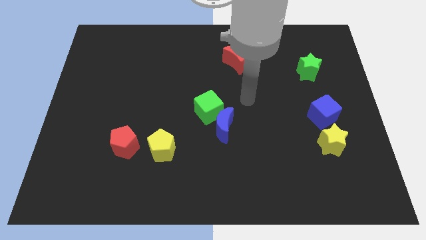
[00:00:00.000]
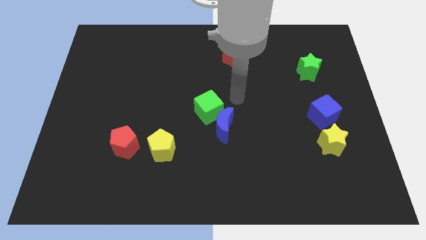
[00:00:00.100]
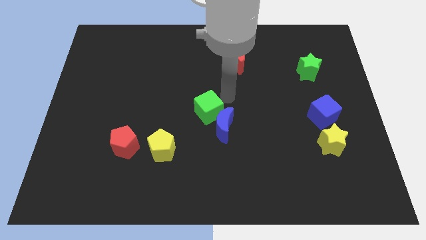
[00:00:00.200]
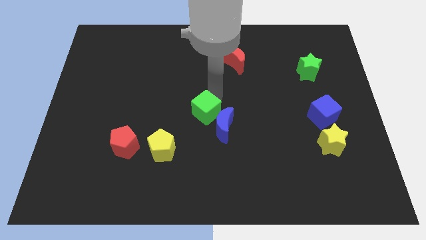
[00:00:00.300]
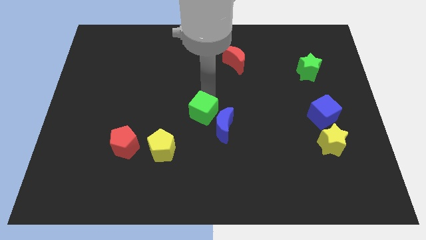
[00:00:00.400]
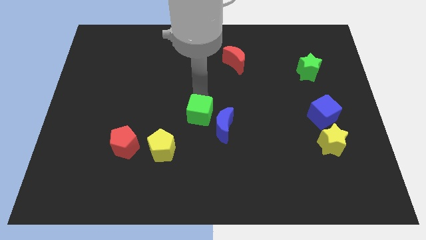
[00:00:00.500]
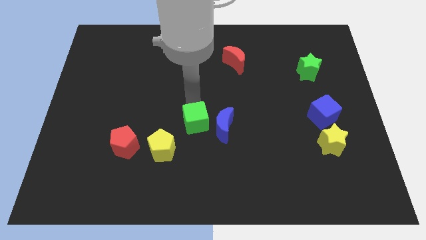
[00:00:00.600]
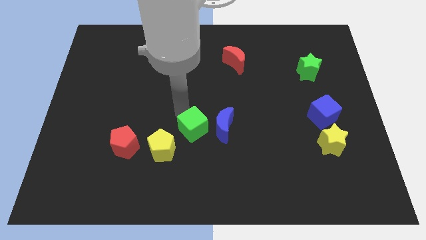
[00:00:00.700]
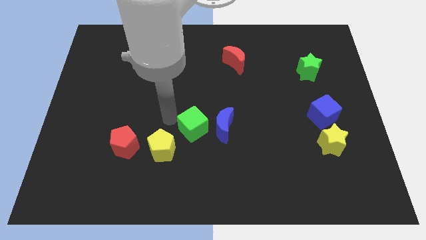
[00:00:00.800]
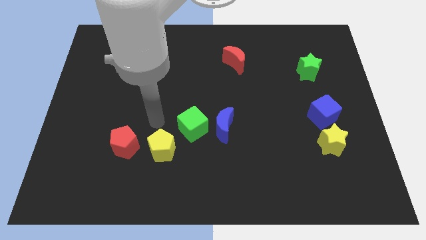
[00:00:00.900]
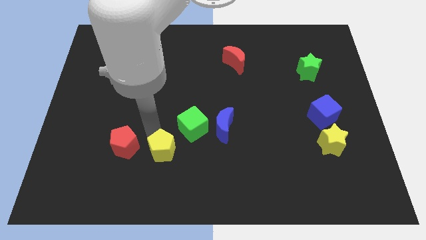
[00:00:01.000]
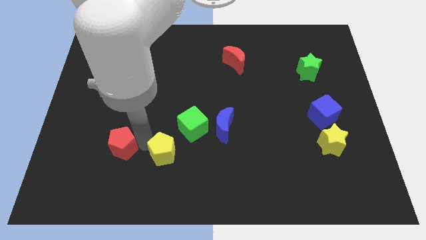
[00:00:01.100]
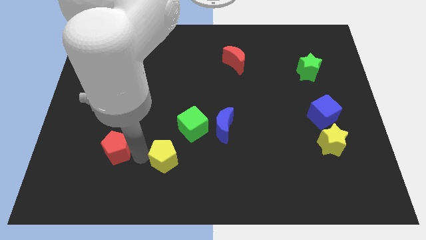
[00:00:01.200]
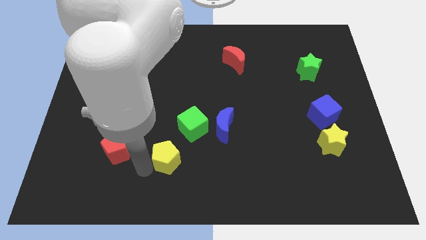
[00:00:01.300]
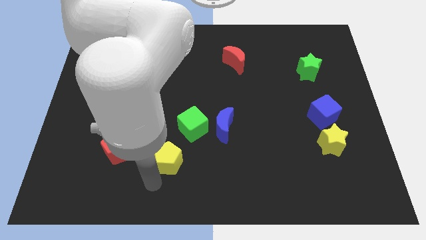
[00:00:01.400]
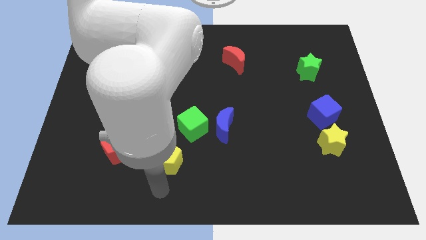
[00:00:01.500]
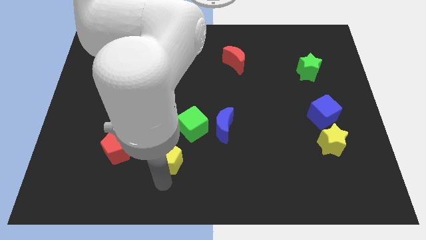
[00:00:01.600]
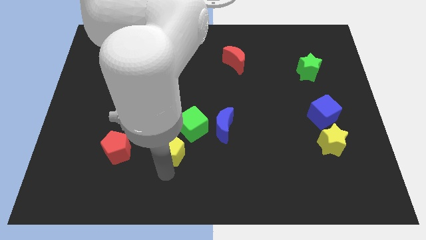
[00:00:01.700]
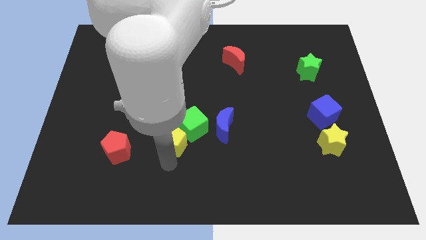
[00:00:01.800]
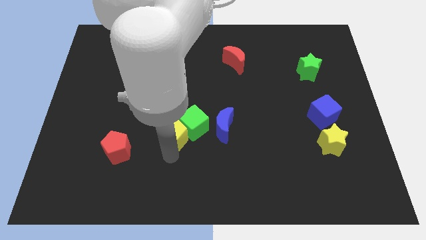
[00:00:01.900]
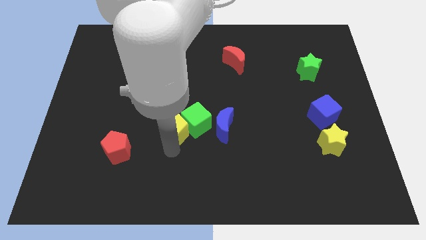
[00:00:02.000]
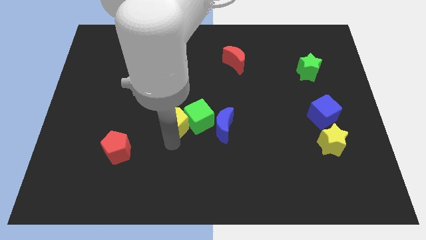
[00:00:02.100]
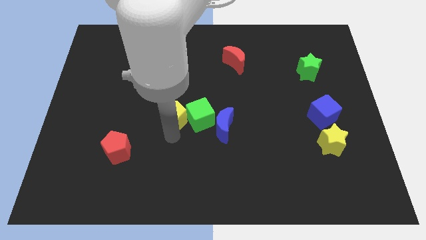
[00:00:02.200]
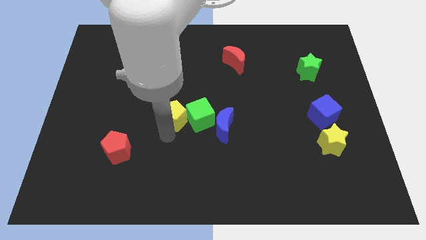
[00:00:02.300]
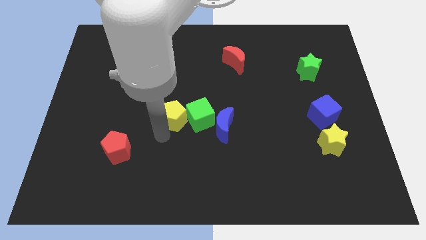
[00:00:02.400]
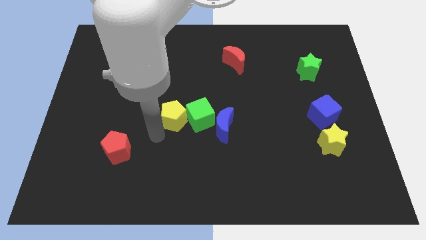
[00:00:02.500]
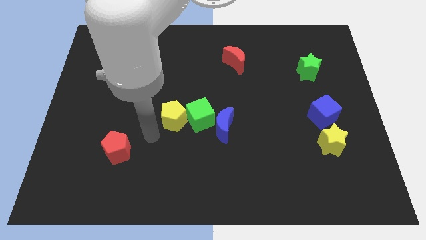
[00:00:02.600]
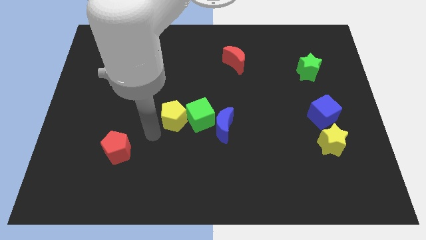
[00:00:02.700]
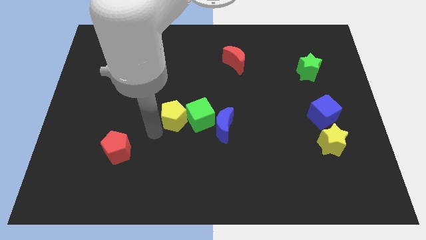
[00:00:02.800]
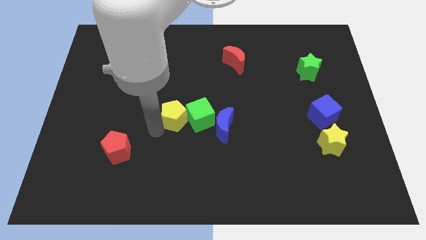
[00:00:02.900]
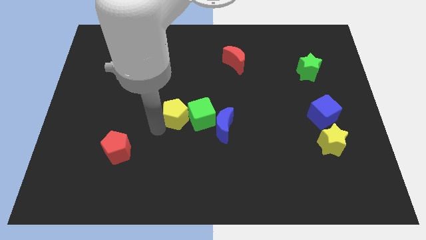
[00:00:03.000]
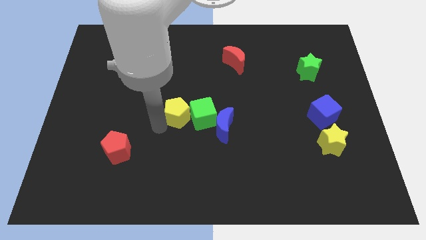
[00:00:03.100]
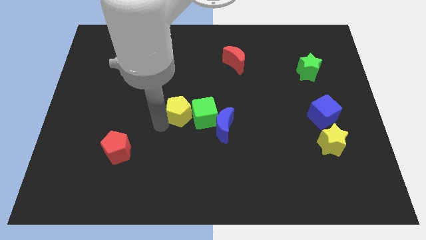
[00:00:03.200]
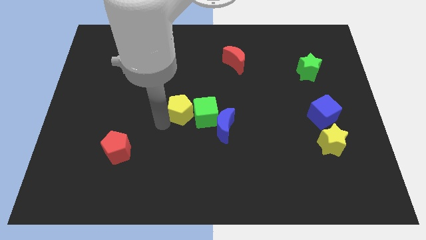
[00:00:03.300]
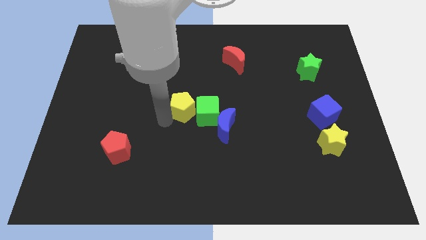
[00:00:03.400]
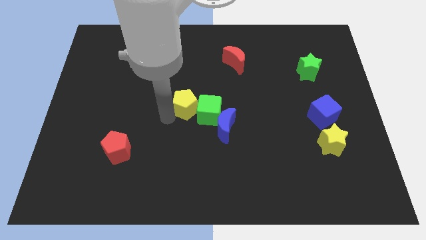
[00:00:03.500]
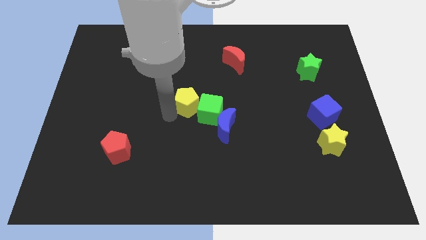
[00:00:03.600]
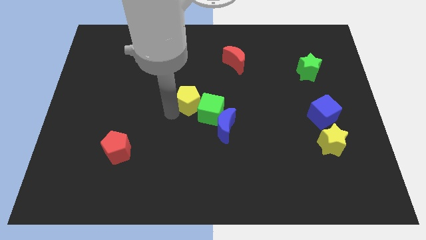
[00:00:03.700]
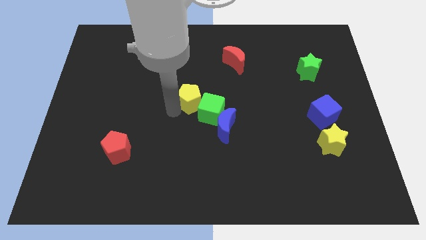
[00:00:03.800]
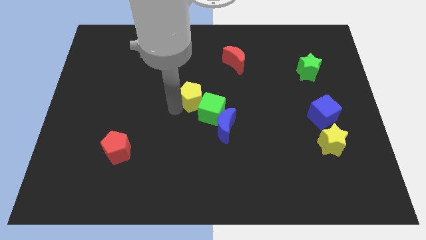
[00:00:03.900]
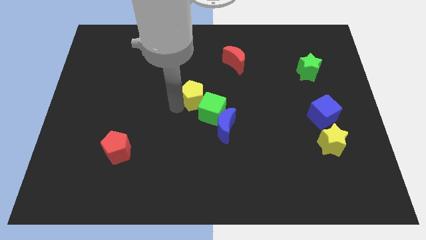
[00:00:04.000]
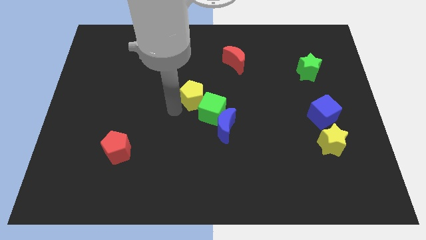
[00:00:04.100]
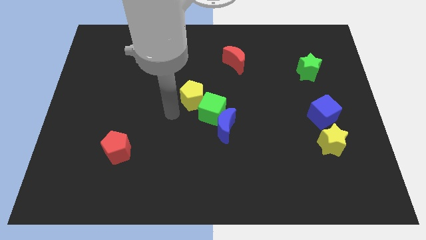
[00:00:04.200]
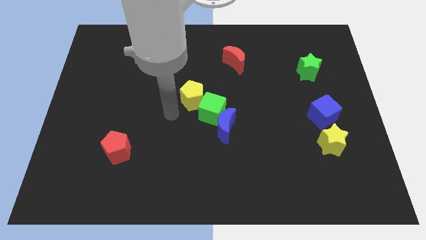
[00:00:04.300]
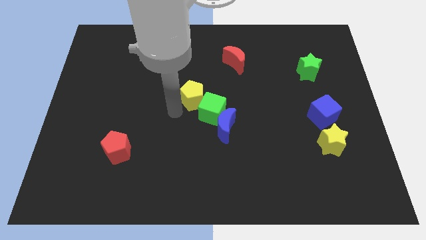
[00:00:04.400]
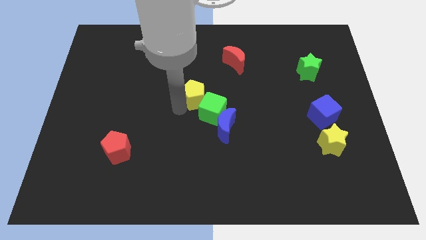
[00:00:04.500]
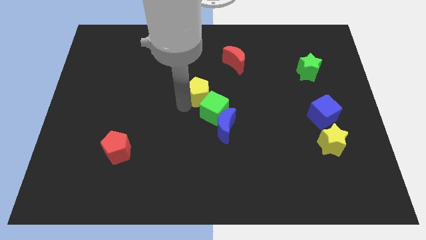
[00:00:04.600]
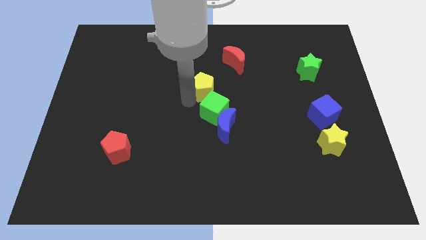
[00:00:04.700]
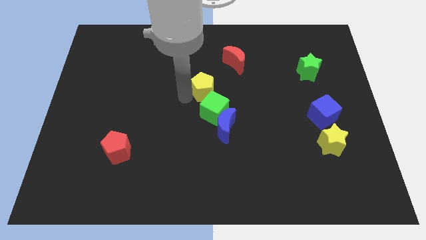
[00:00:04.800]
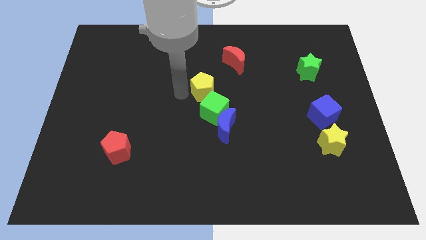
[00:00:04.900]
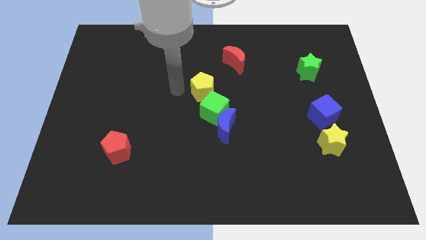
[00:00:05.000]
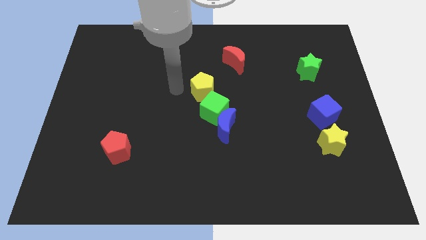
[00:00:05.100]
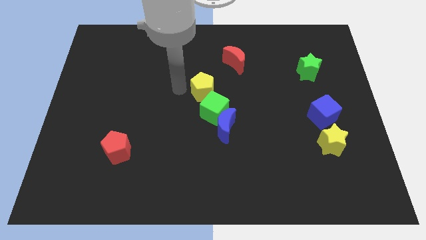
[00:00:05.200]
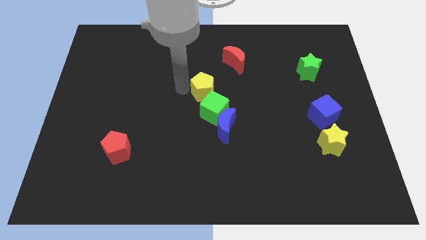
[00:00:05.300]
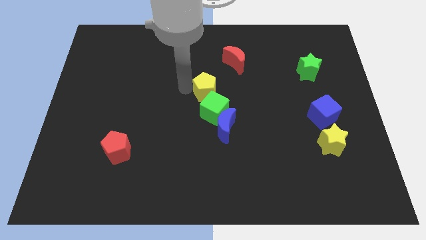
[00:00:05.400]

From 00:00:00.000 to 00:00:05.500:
slide the yellow pentagon to the top of the blue moon

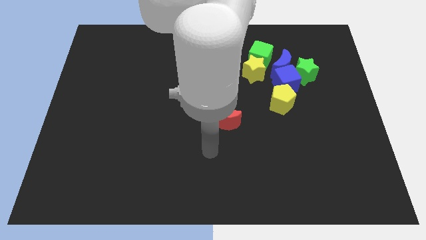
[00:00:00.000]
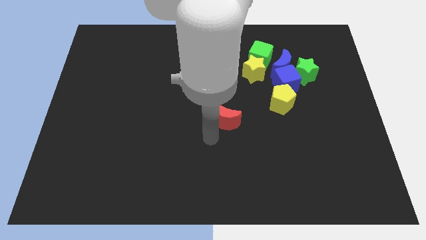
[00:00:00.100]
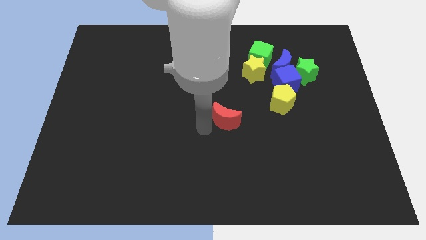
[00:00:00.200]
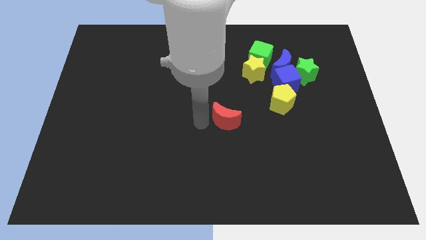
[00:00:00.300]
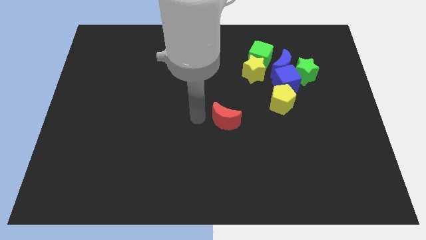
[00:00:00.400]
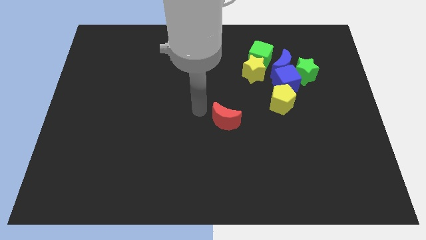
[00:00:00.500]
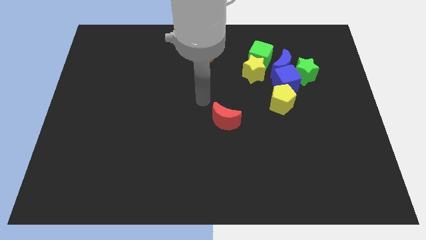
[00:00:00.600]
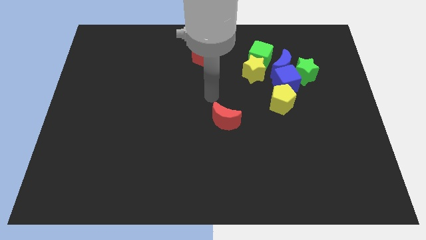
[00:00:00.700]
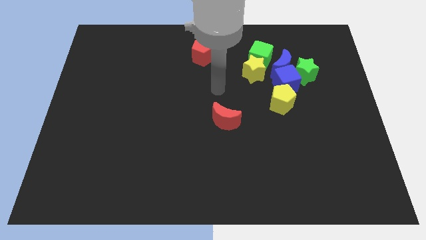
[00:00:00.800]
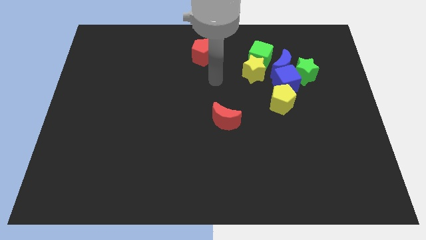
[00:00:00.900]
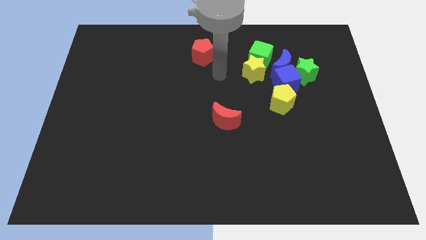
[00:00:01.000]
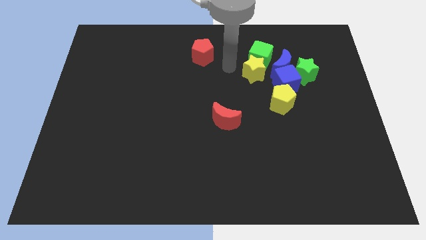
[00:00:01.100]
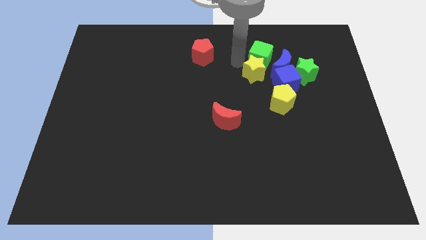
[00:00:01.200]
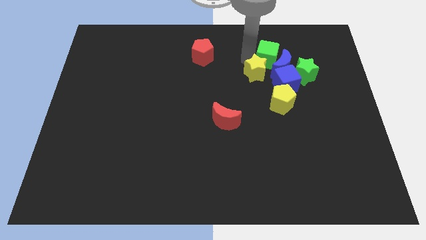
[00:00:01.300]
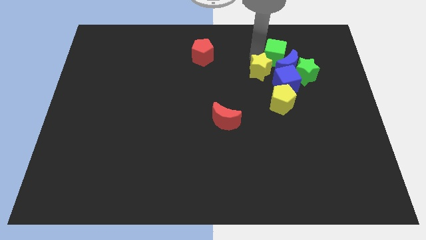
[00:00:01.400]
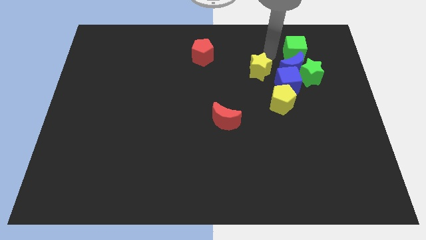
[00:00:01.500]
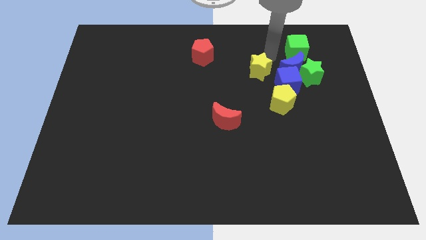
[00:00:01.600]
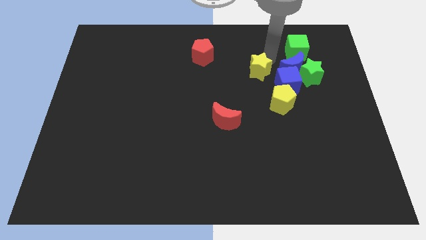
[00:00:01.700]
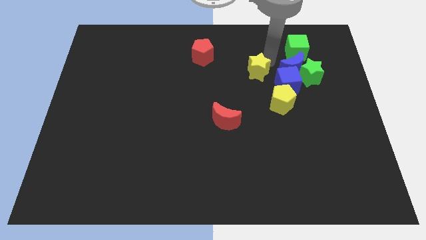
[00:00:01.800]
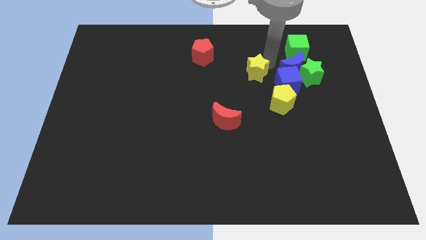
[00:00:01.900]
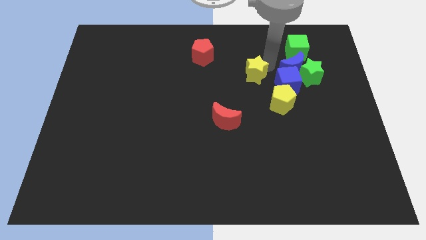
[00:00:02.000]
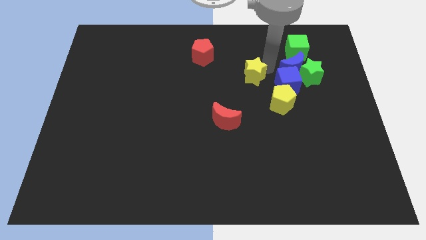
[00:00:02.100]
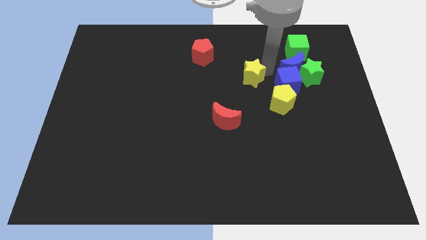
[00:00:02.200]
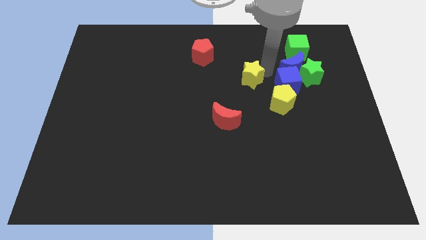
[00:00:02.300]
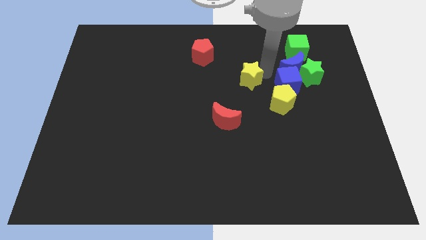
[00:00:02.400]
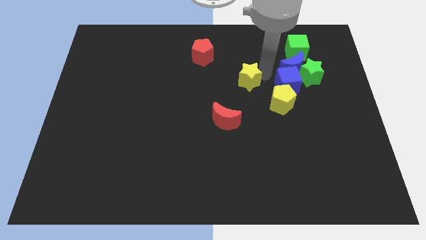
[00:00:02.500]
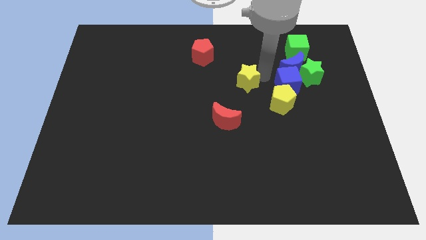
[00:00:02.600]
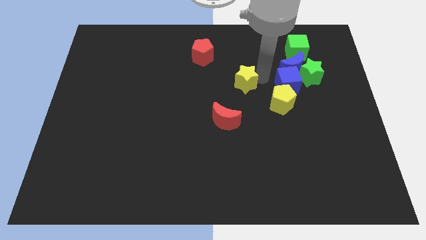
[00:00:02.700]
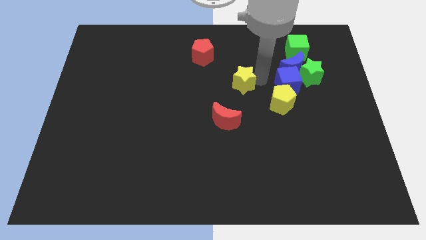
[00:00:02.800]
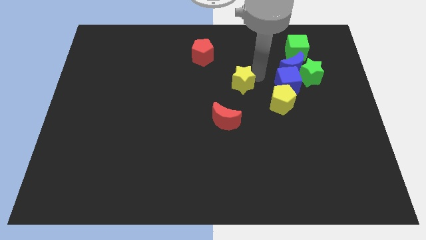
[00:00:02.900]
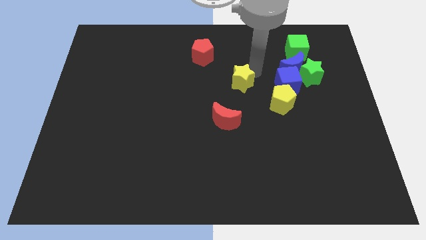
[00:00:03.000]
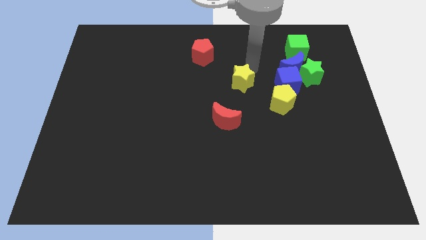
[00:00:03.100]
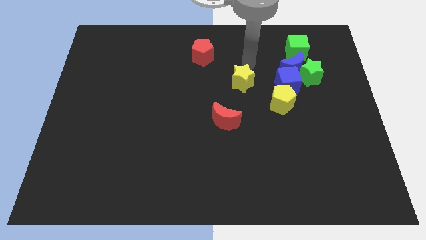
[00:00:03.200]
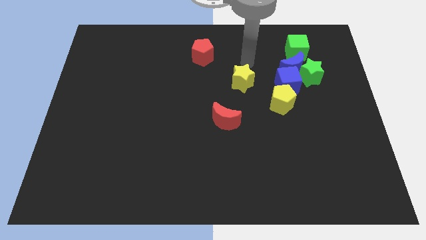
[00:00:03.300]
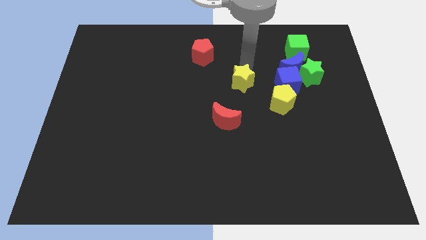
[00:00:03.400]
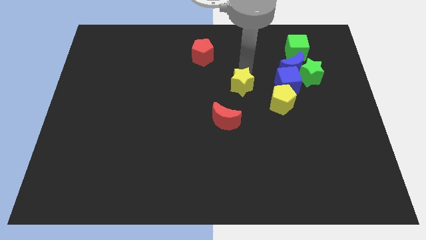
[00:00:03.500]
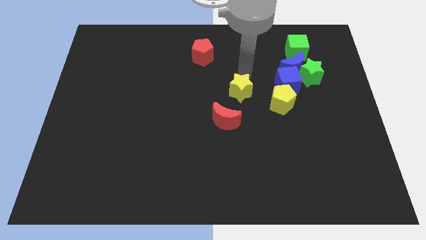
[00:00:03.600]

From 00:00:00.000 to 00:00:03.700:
move the yellow star to the left of the yellow pentagon
